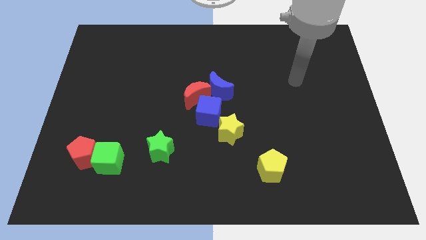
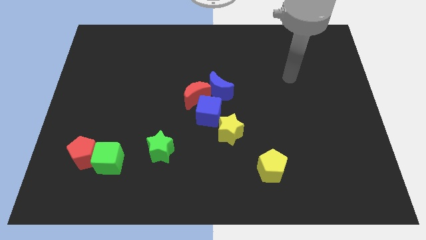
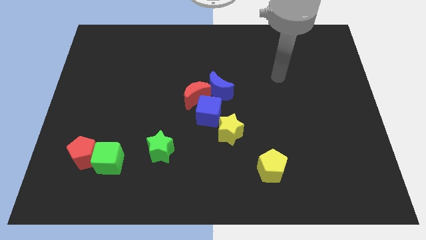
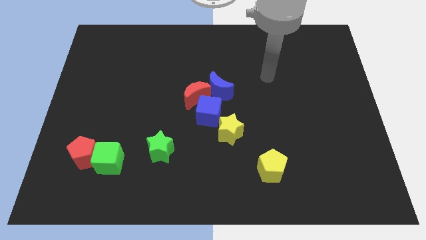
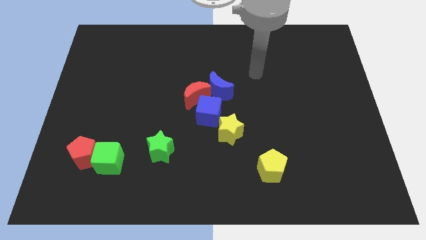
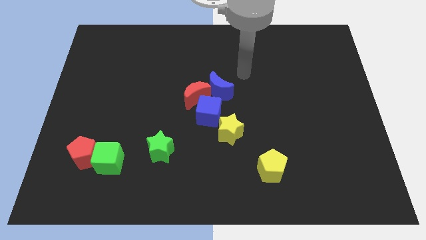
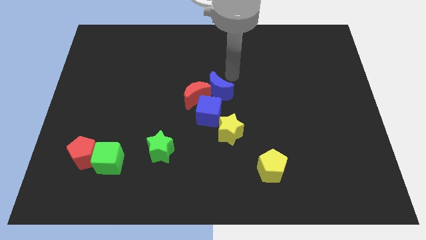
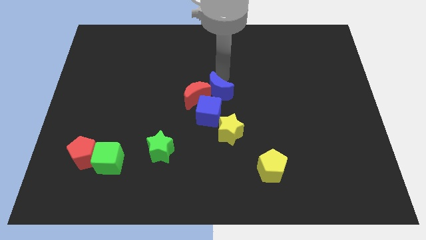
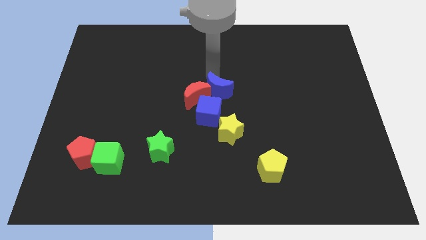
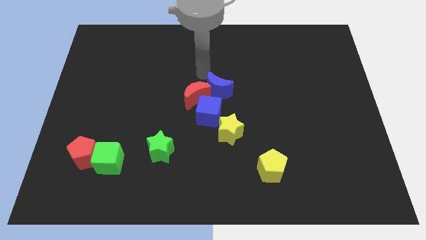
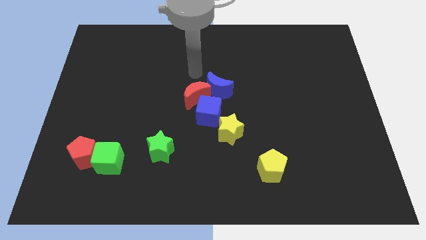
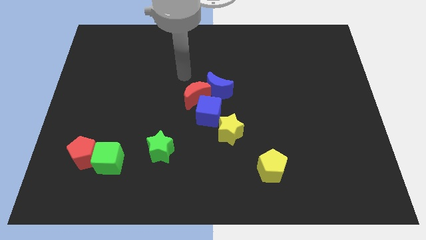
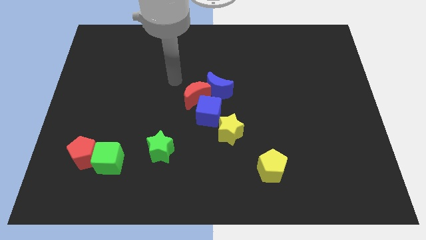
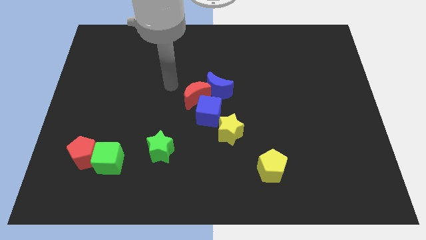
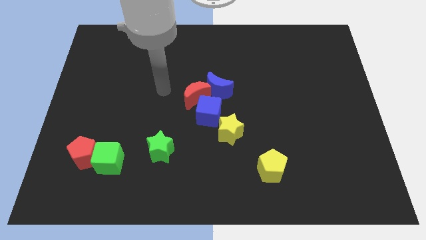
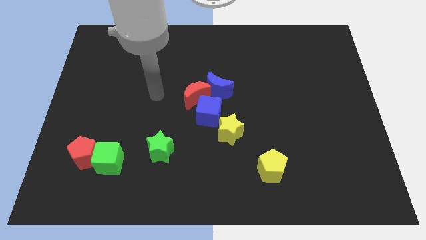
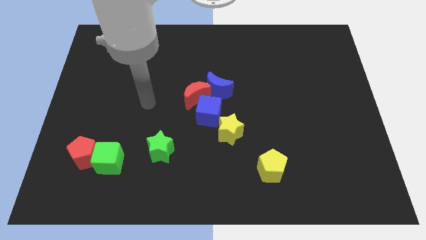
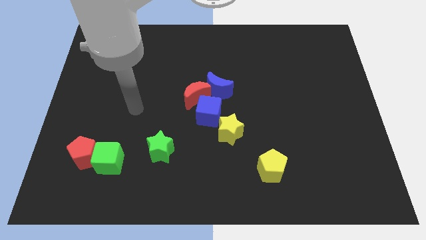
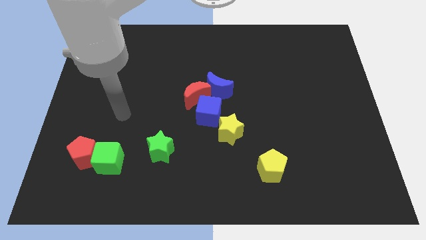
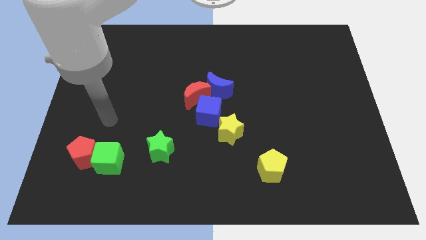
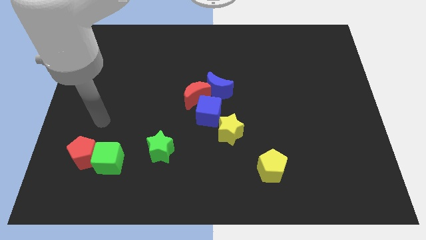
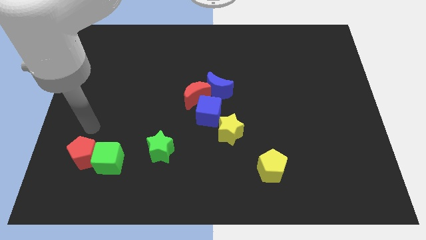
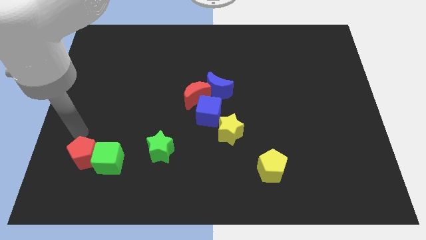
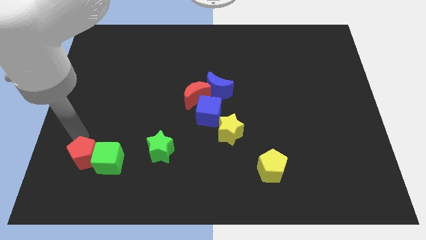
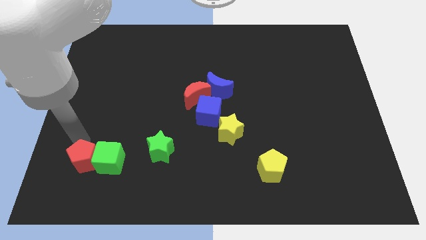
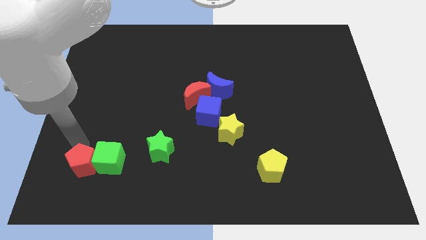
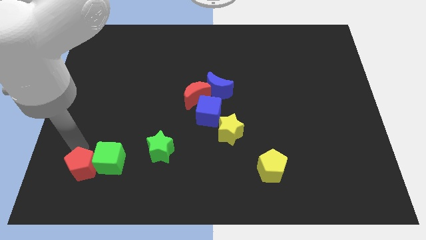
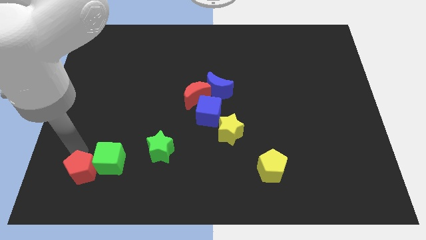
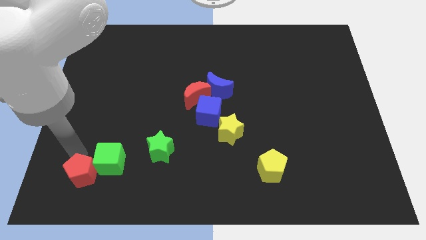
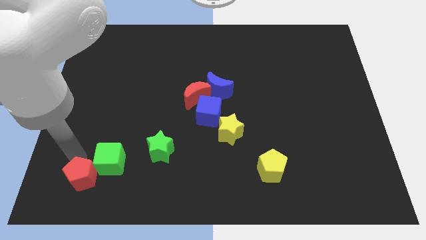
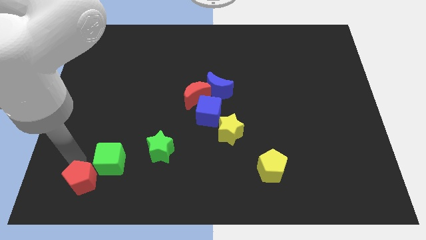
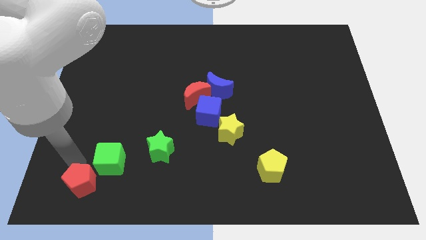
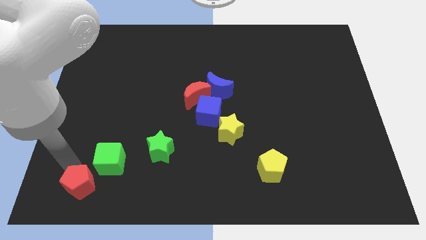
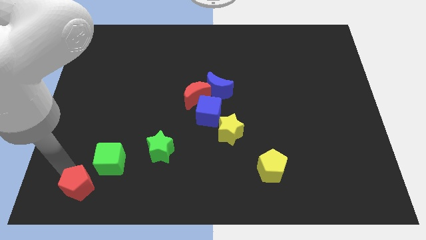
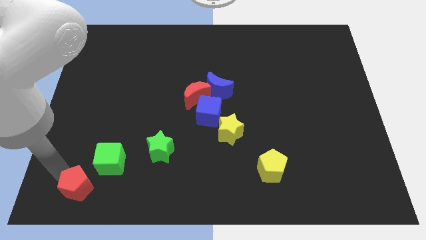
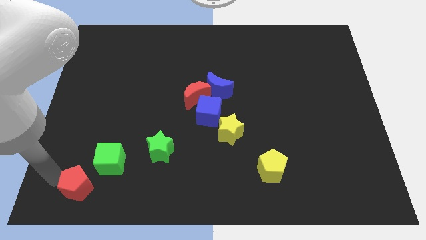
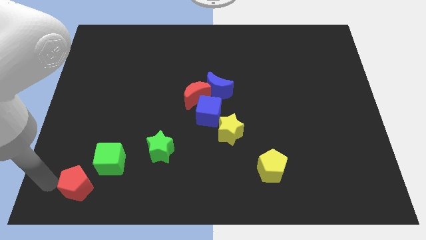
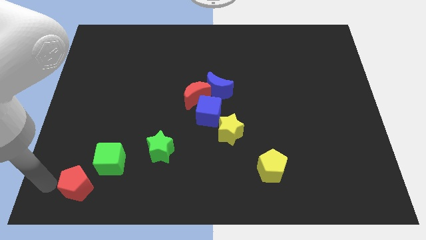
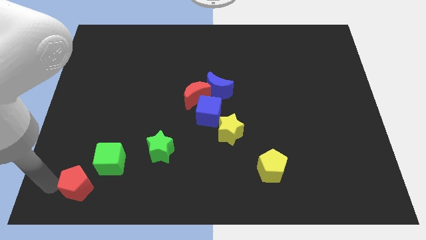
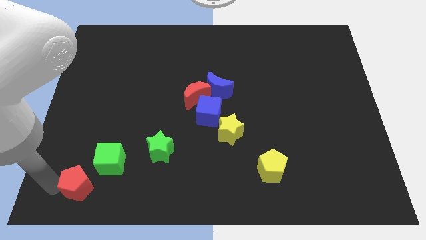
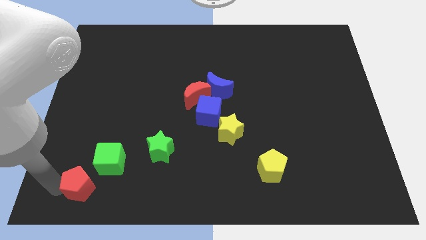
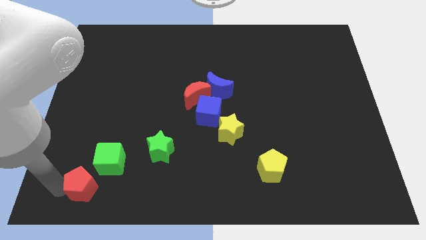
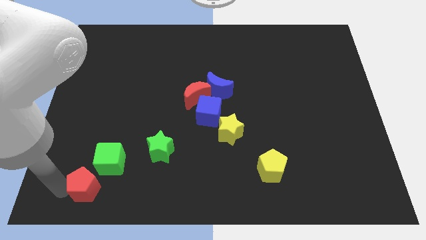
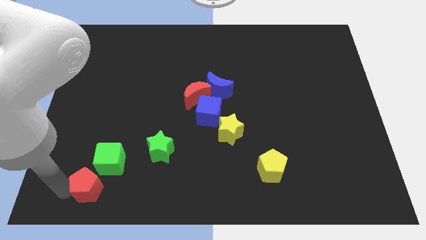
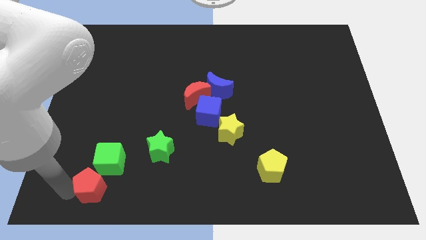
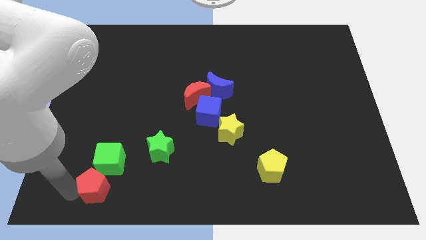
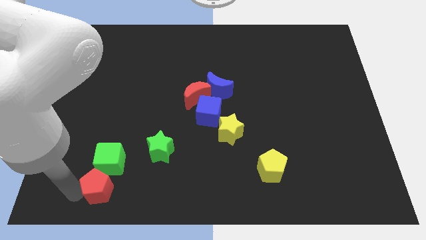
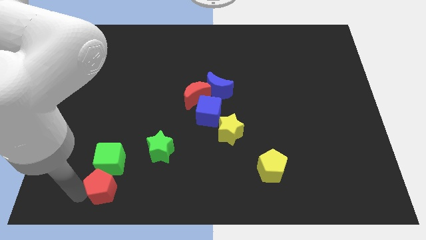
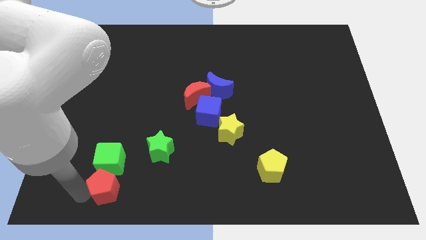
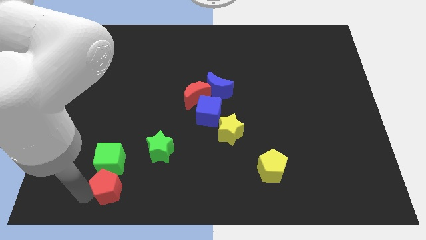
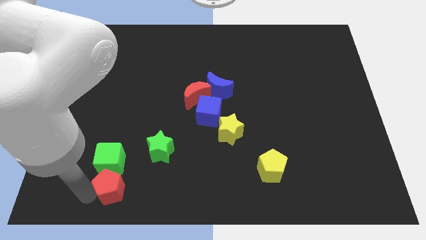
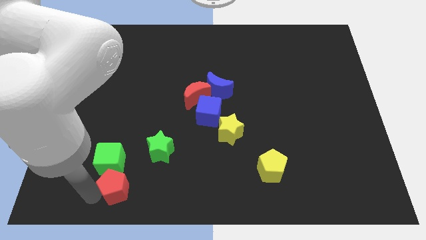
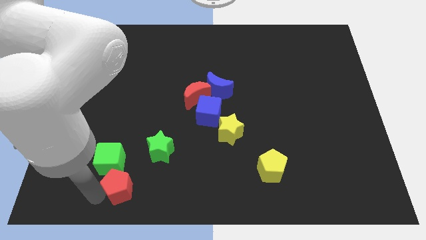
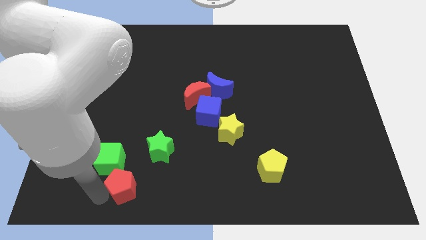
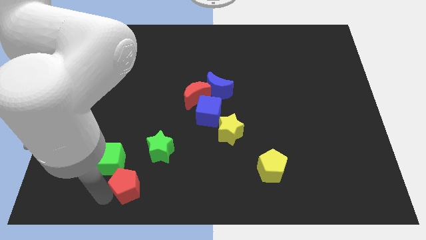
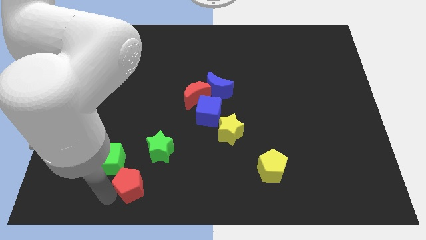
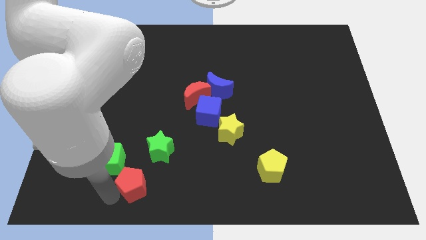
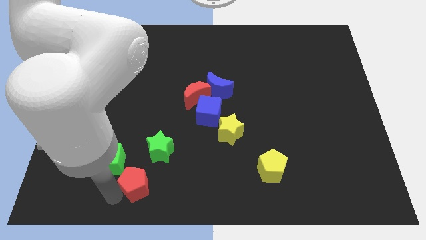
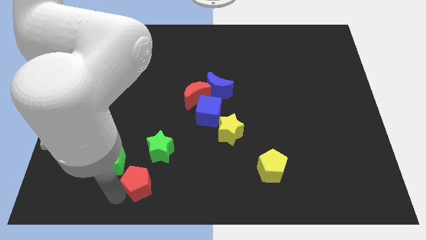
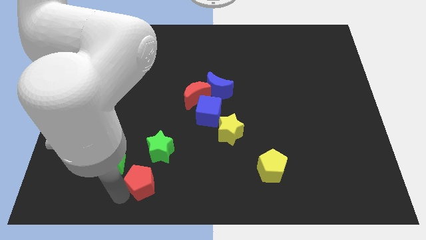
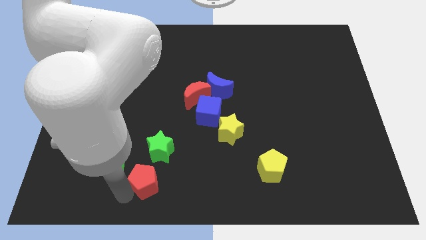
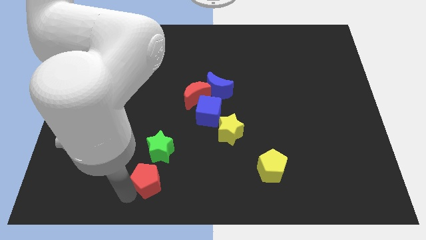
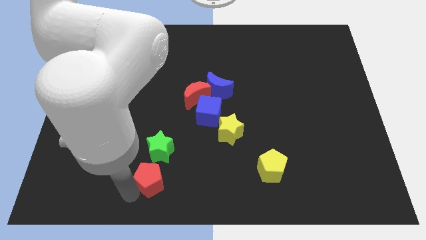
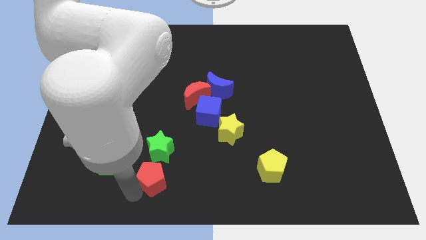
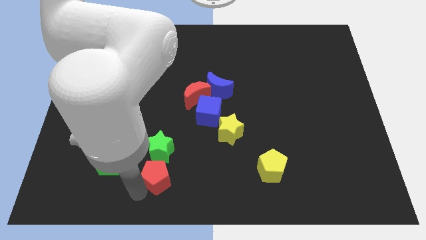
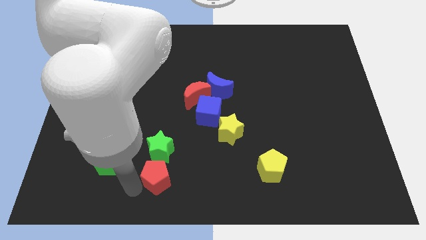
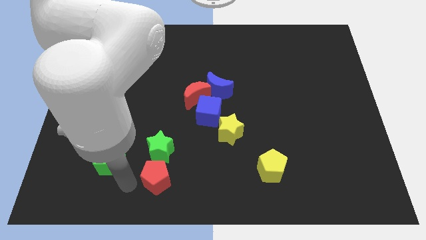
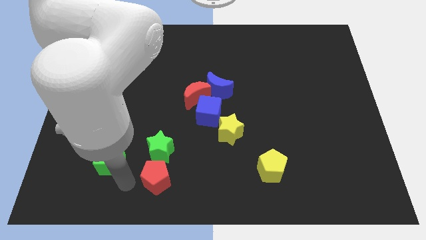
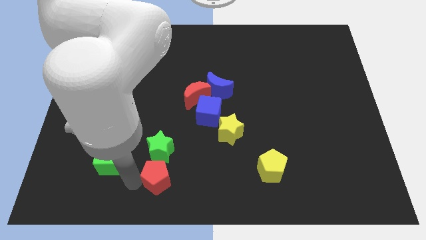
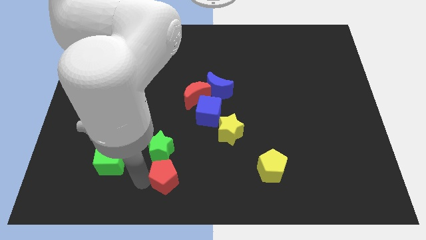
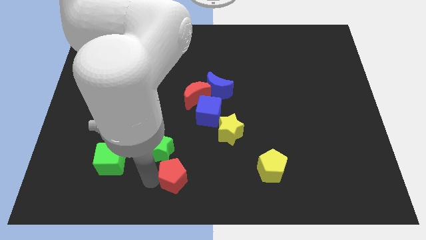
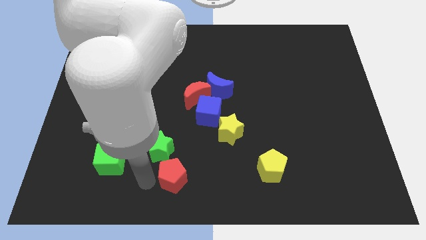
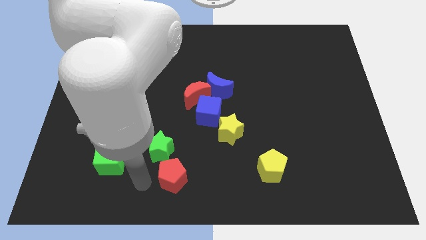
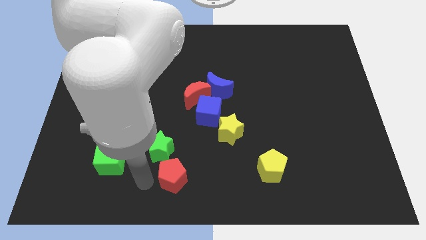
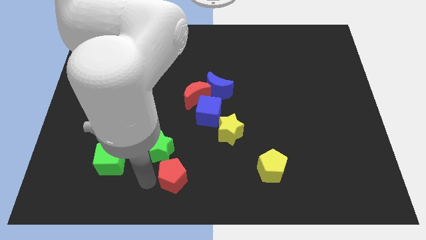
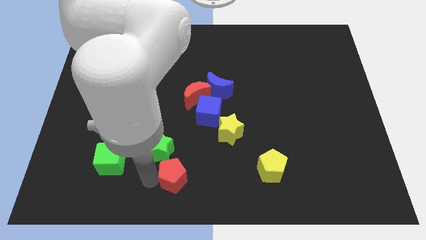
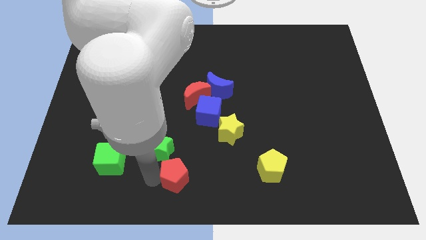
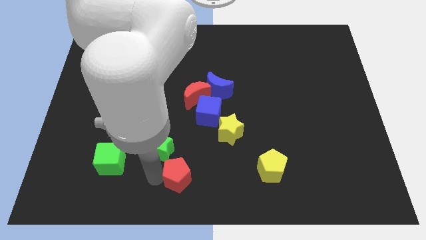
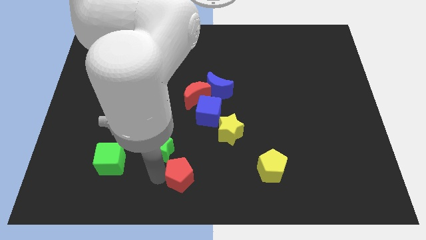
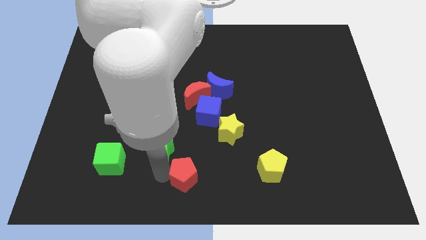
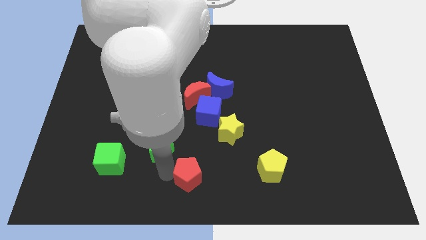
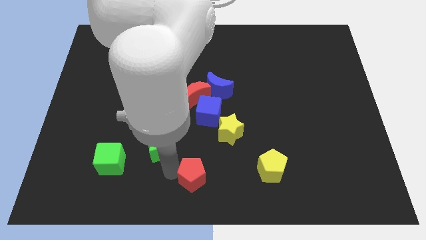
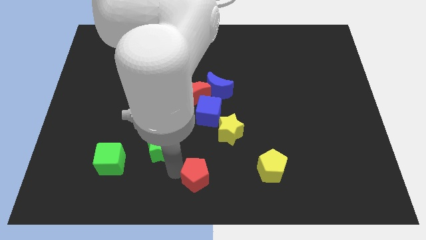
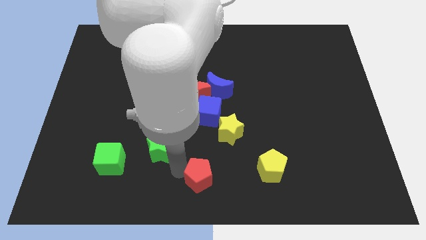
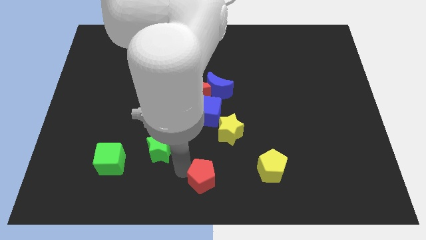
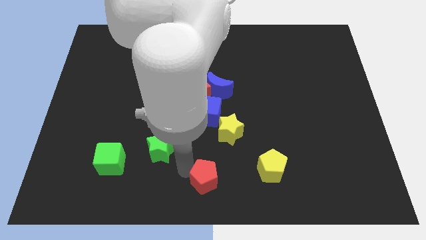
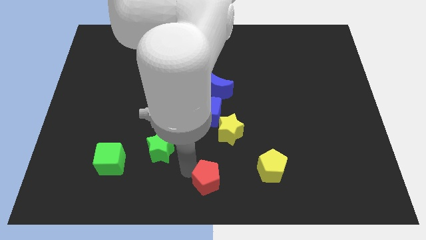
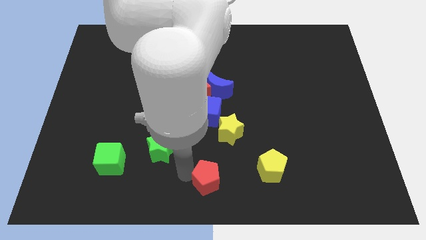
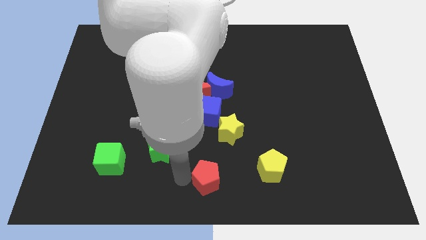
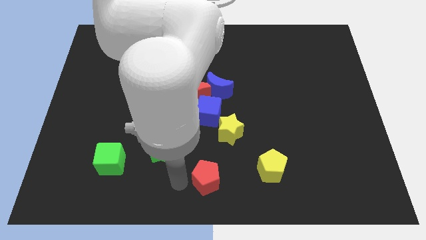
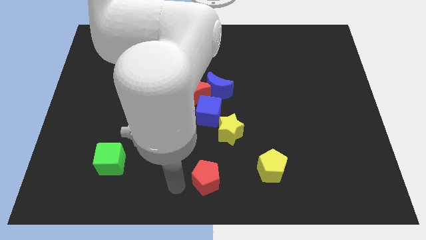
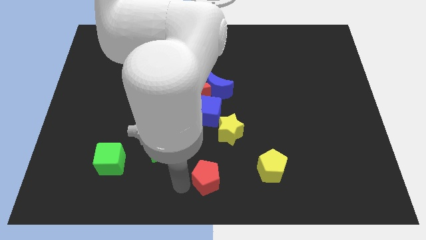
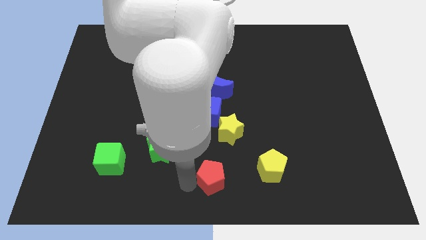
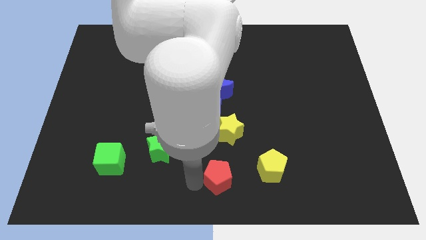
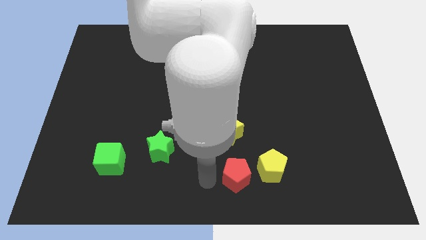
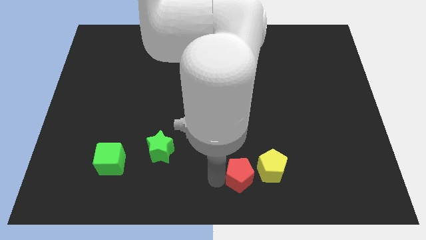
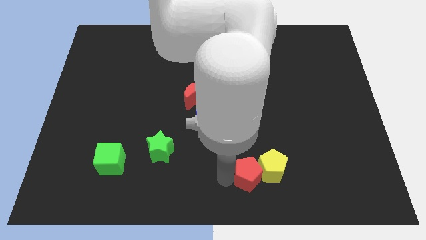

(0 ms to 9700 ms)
push the red pentagon to the yellow pentagon
